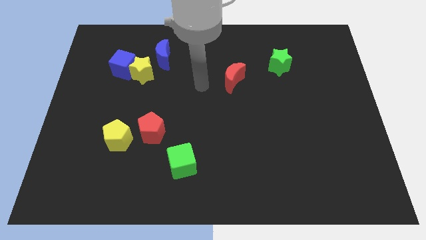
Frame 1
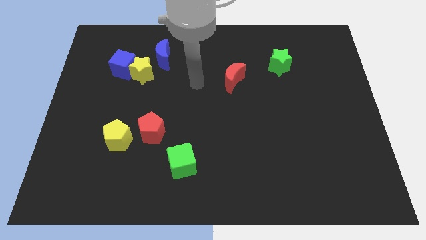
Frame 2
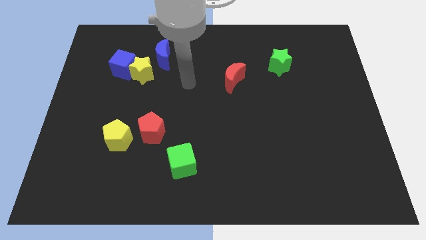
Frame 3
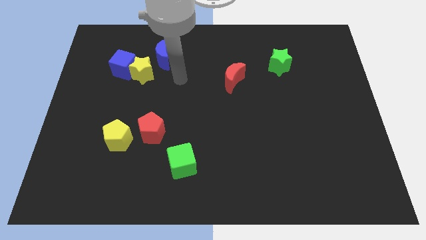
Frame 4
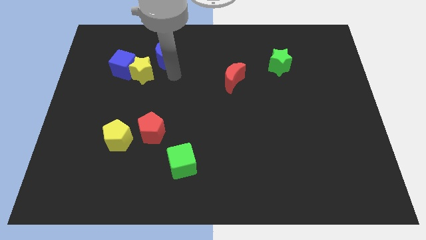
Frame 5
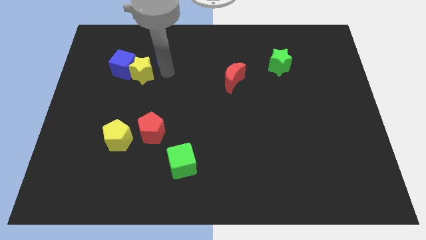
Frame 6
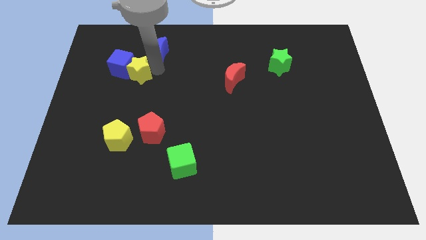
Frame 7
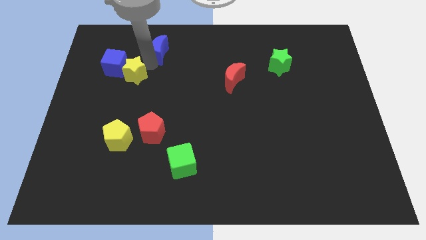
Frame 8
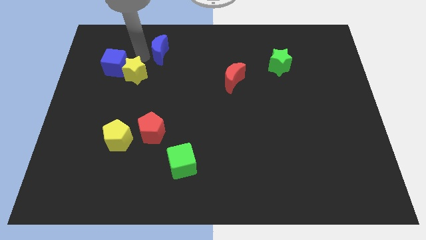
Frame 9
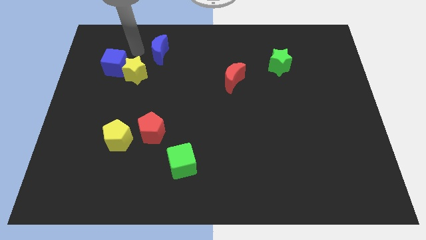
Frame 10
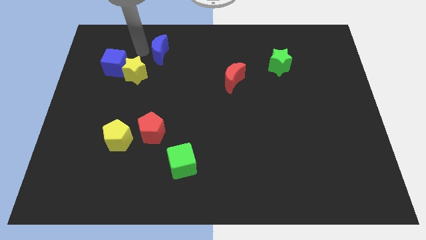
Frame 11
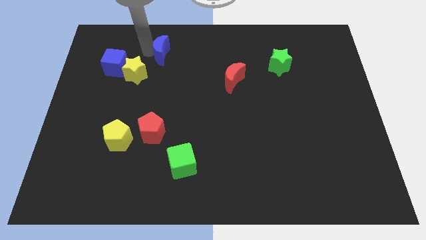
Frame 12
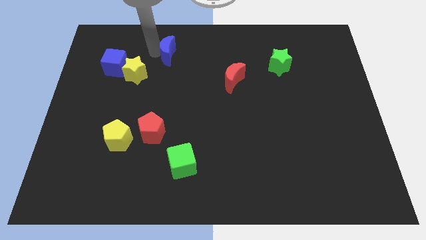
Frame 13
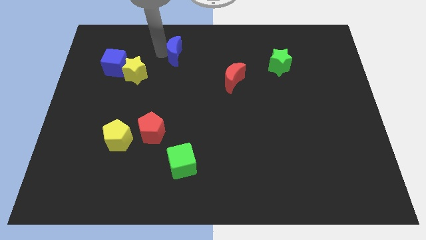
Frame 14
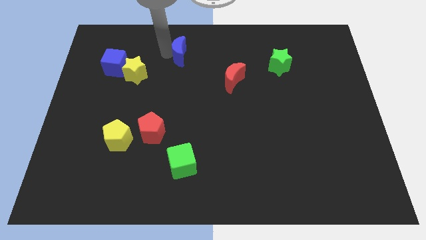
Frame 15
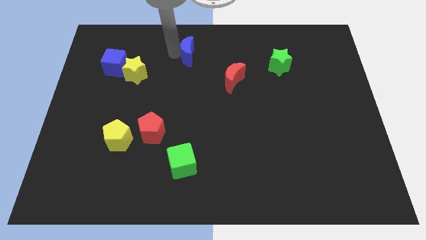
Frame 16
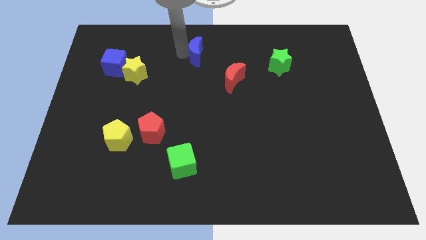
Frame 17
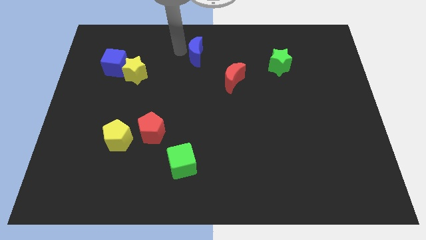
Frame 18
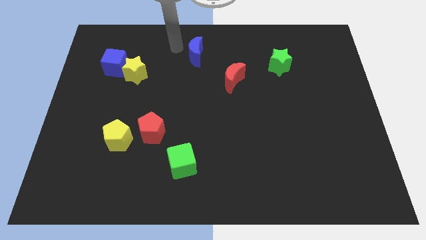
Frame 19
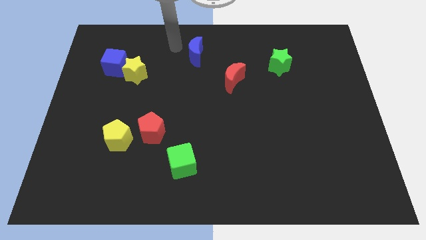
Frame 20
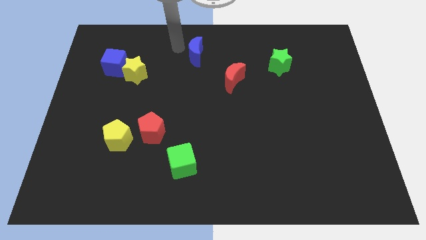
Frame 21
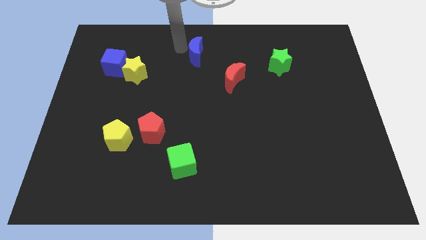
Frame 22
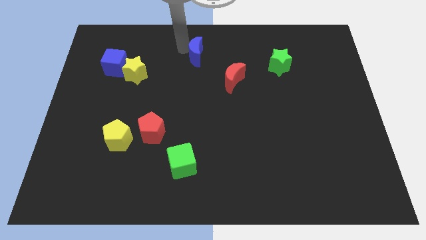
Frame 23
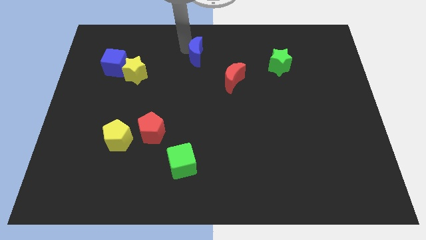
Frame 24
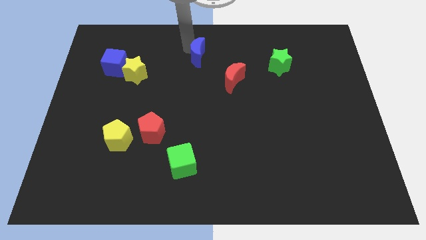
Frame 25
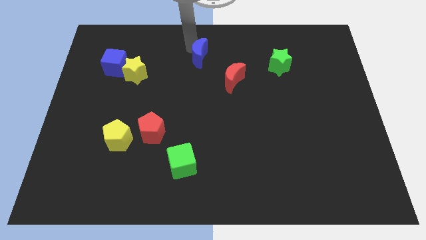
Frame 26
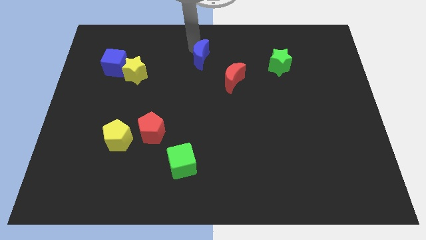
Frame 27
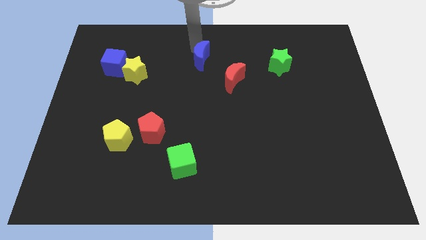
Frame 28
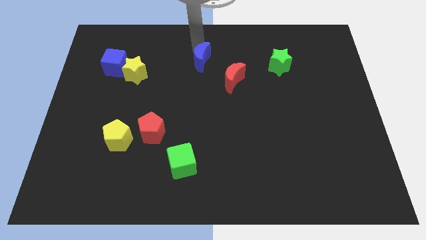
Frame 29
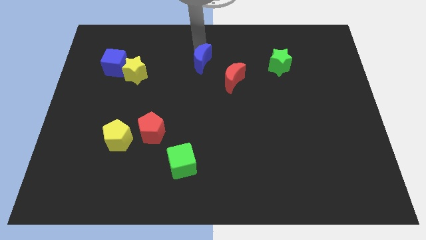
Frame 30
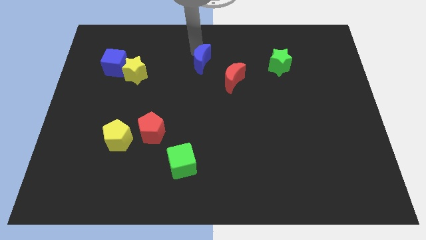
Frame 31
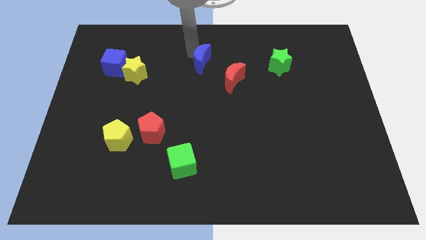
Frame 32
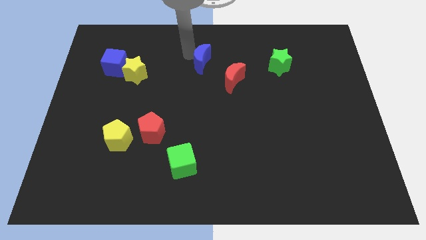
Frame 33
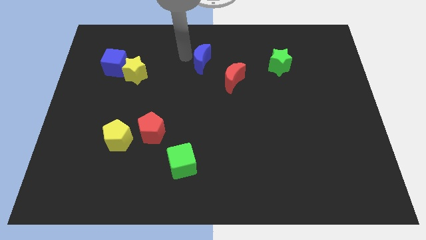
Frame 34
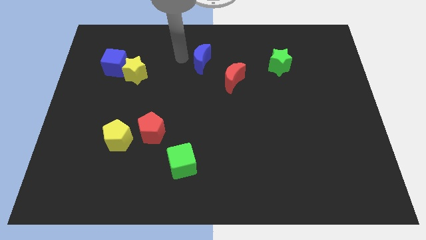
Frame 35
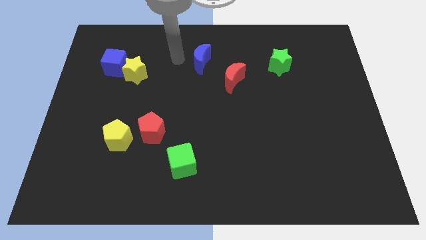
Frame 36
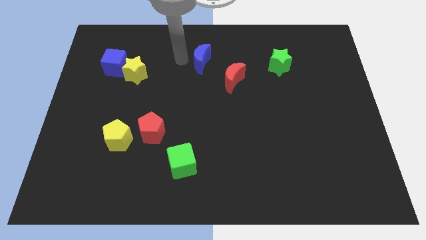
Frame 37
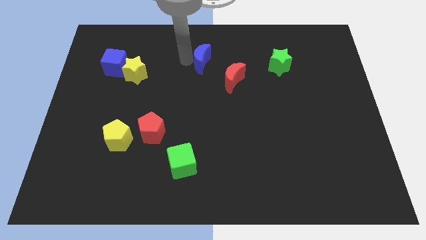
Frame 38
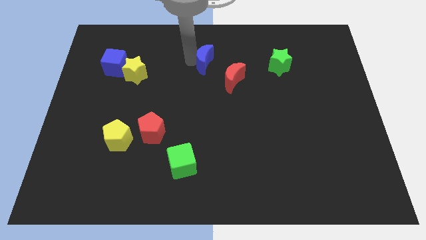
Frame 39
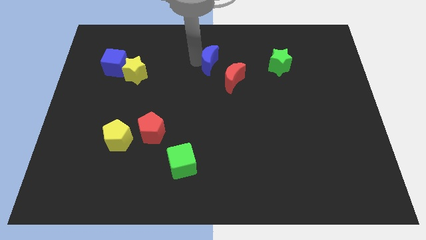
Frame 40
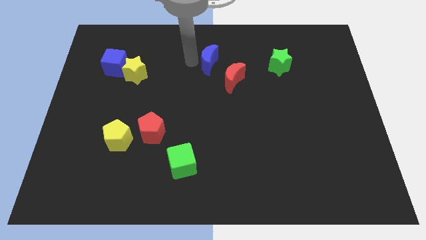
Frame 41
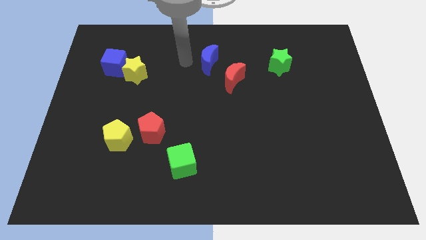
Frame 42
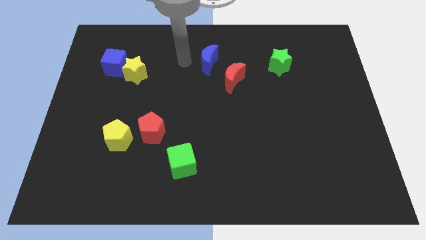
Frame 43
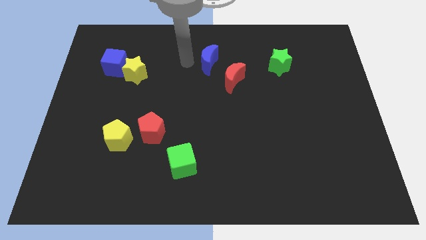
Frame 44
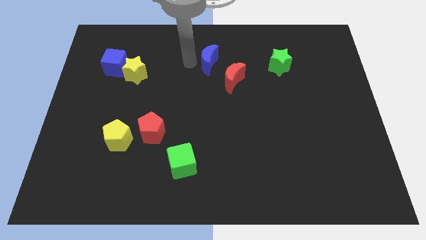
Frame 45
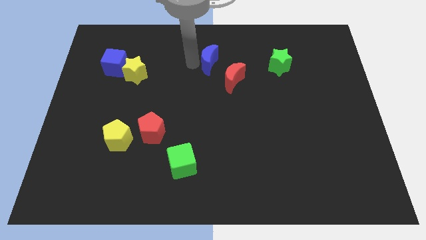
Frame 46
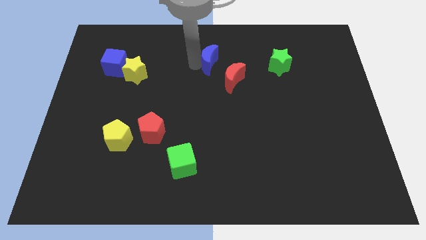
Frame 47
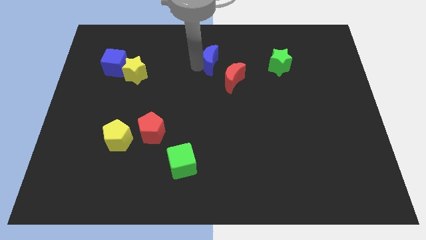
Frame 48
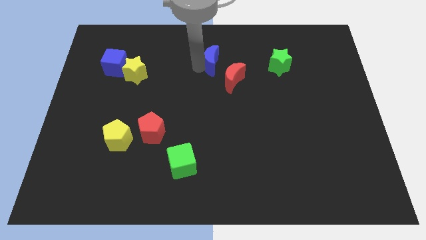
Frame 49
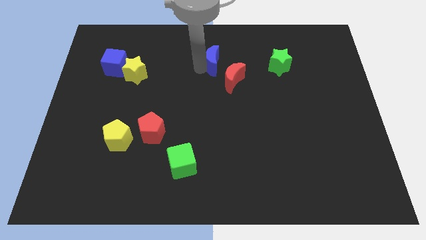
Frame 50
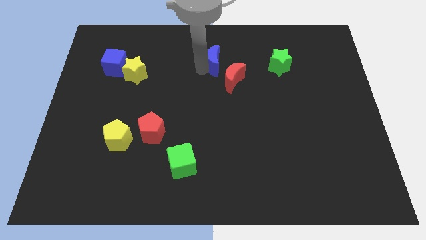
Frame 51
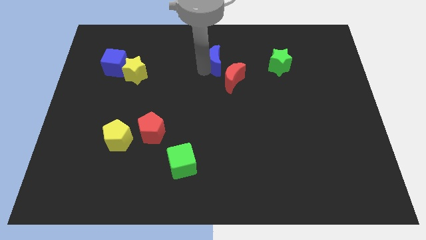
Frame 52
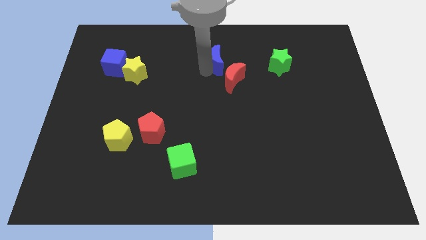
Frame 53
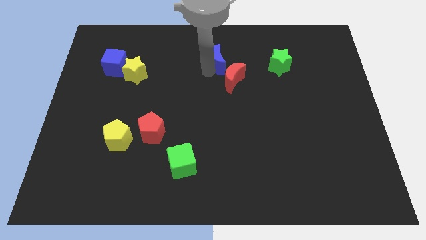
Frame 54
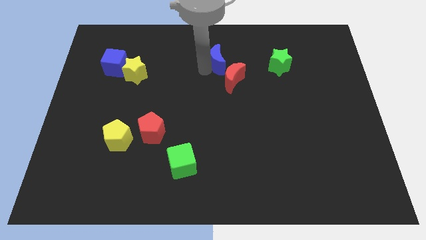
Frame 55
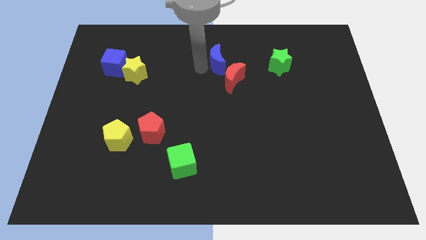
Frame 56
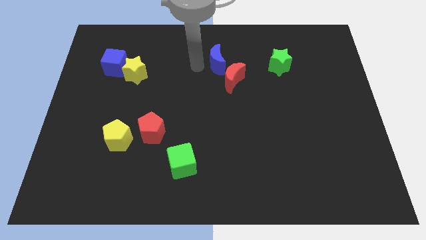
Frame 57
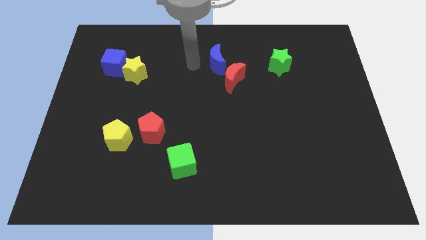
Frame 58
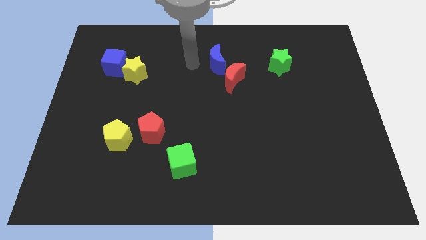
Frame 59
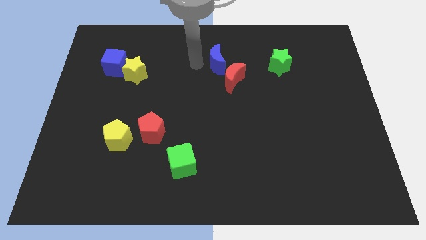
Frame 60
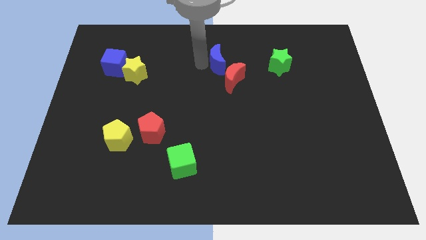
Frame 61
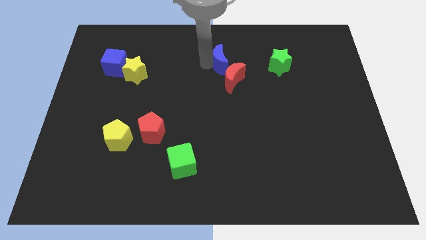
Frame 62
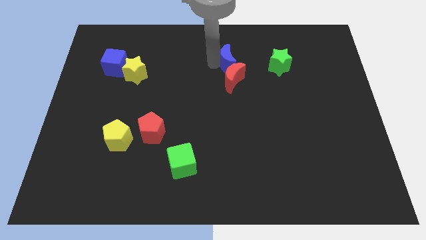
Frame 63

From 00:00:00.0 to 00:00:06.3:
move the blue moon to the top right side of the red moon

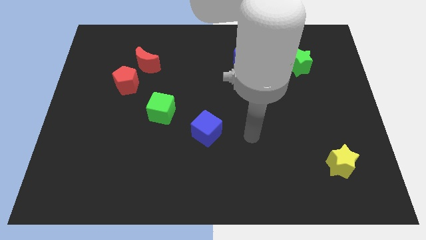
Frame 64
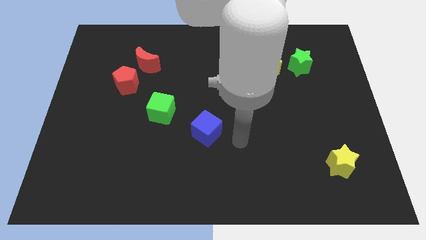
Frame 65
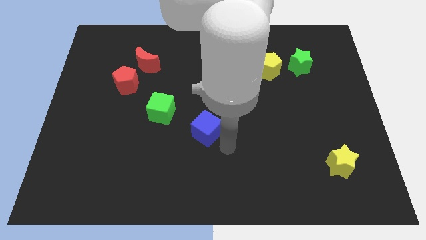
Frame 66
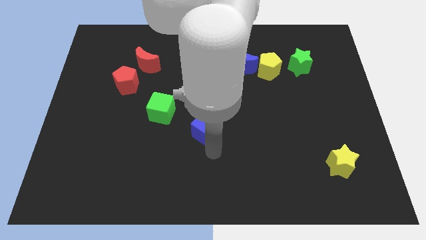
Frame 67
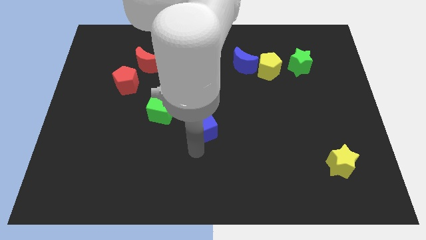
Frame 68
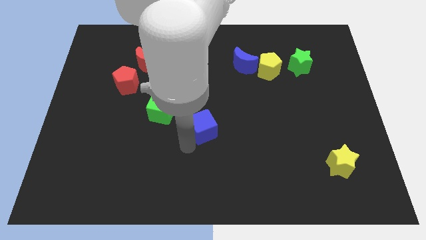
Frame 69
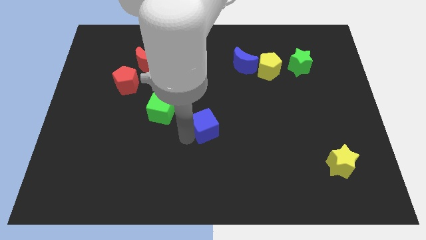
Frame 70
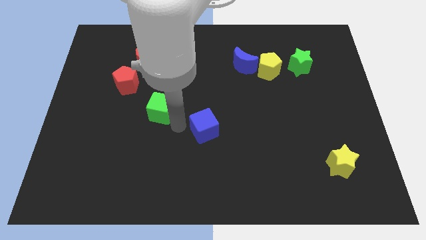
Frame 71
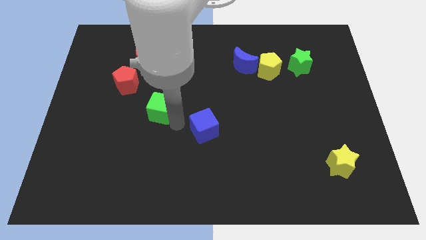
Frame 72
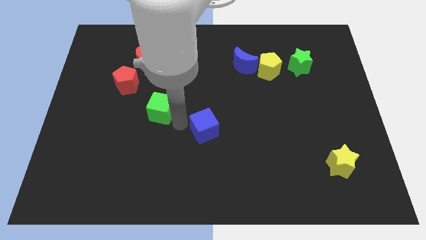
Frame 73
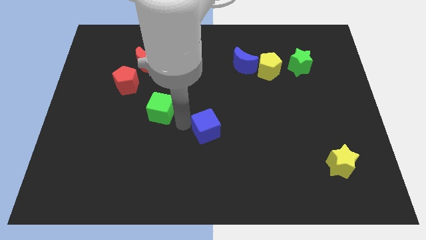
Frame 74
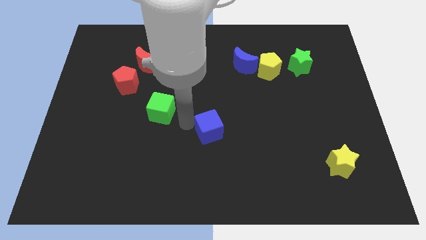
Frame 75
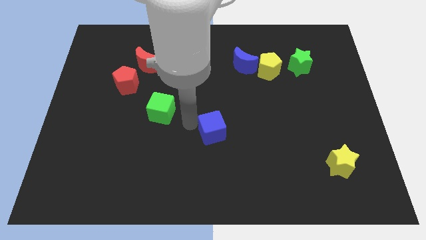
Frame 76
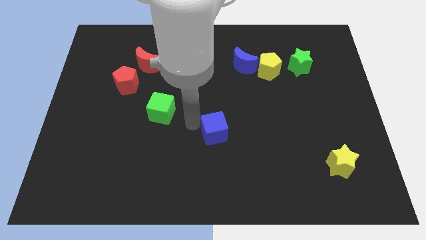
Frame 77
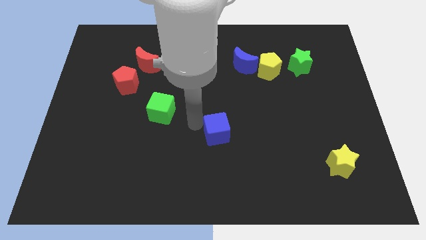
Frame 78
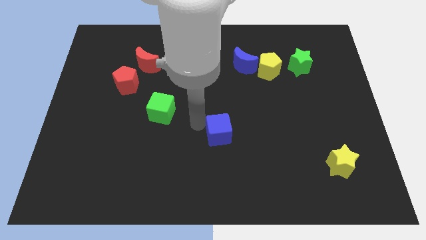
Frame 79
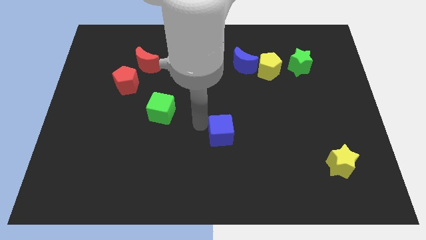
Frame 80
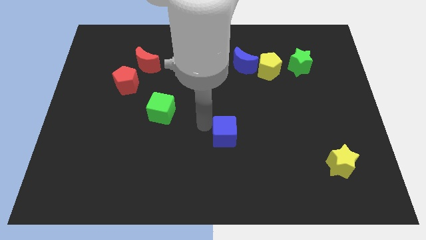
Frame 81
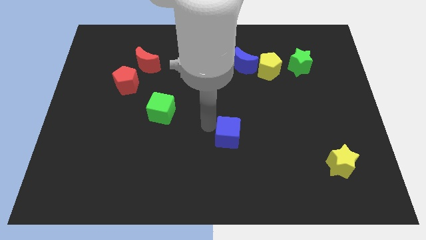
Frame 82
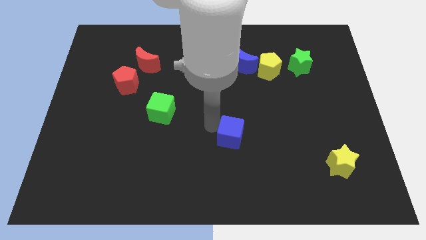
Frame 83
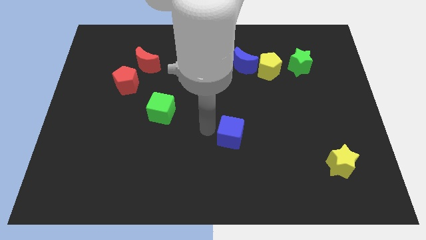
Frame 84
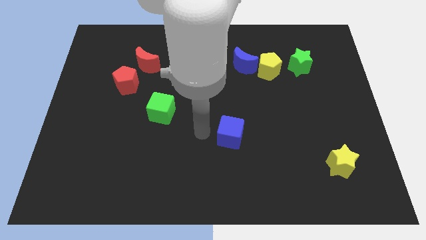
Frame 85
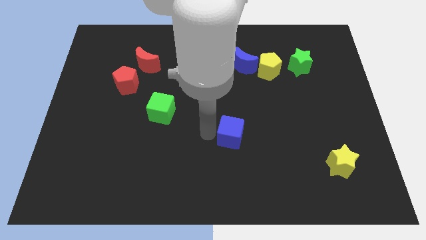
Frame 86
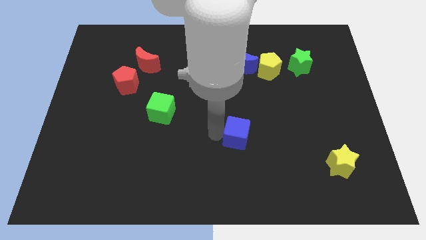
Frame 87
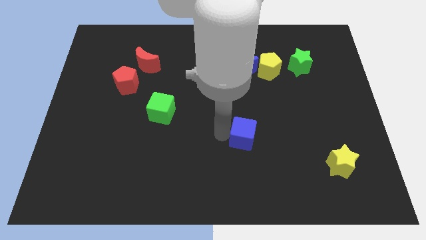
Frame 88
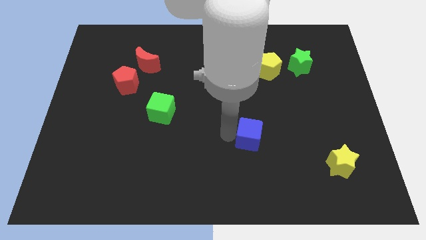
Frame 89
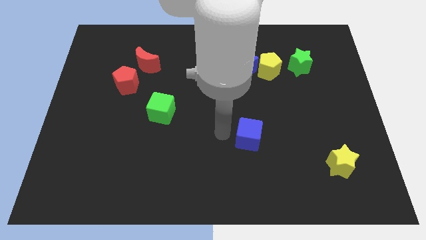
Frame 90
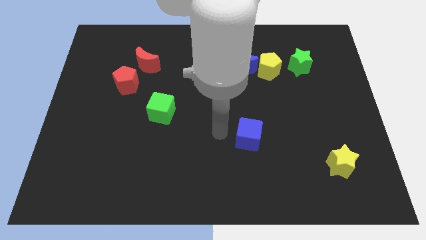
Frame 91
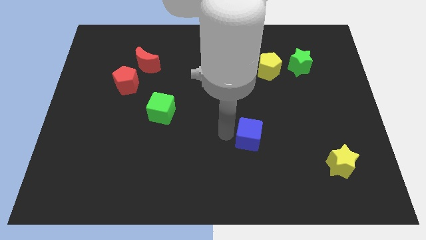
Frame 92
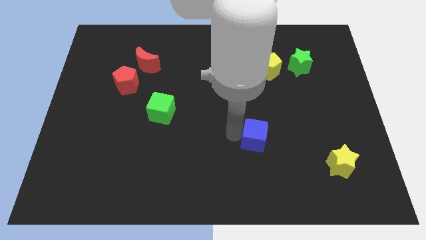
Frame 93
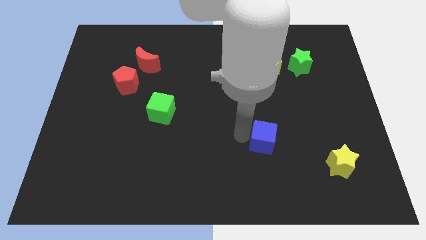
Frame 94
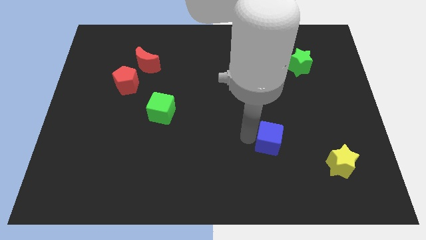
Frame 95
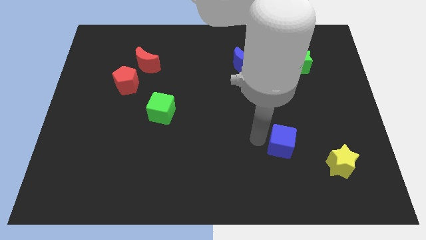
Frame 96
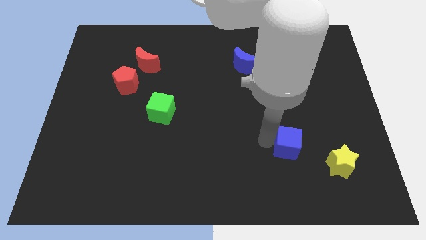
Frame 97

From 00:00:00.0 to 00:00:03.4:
push the blue cube to the top left side of the yellow star
